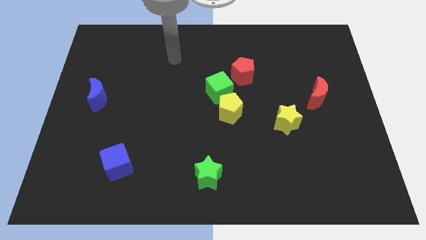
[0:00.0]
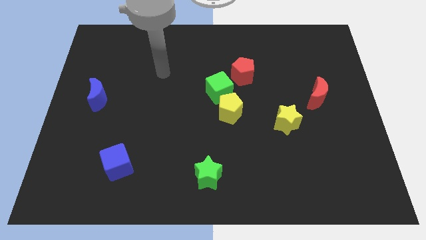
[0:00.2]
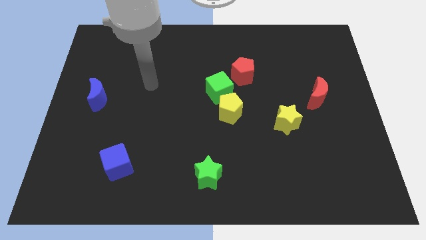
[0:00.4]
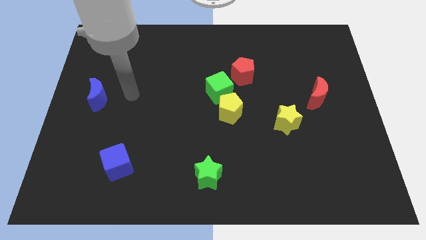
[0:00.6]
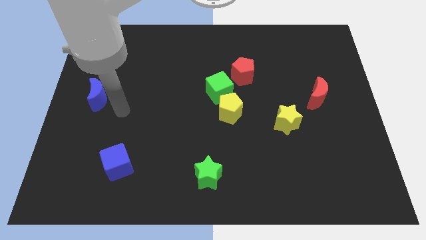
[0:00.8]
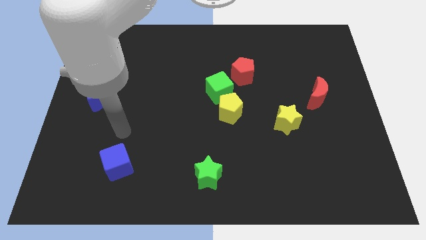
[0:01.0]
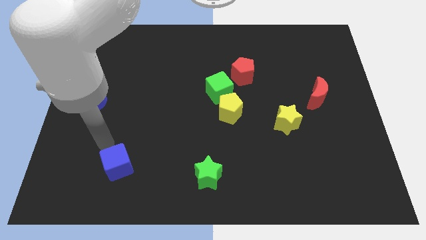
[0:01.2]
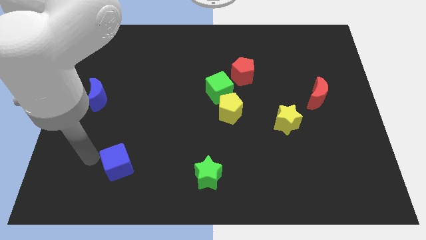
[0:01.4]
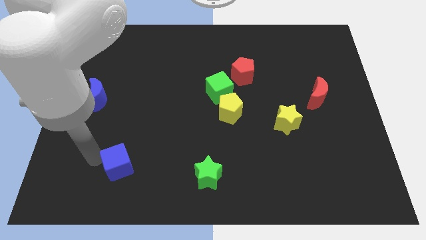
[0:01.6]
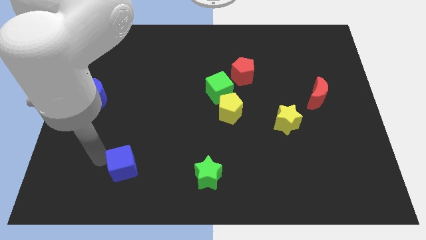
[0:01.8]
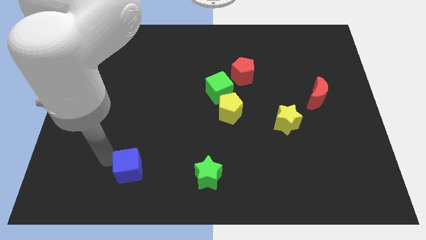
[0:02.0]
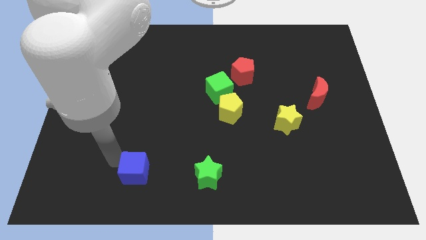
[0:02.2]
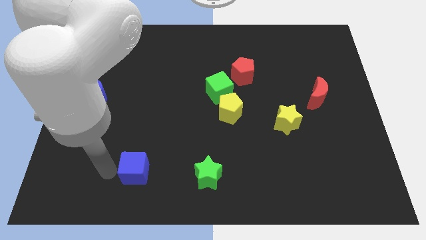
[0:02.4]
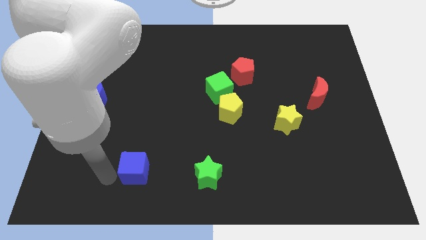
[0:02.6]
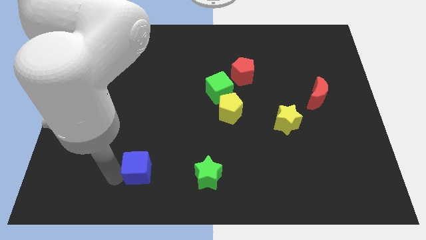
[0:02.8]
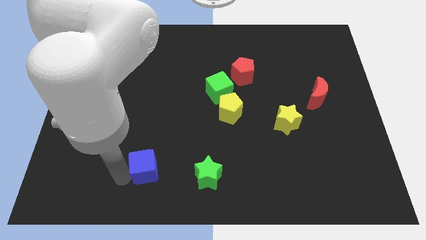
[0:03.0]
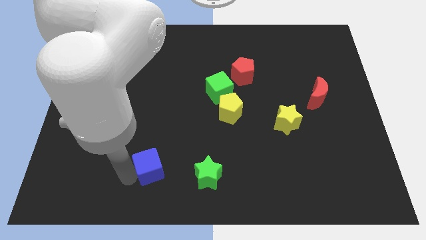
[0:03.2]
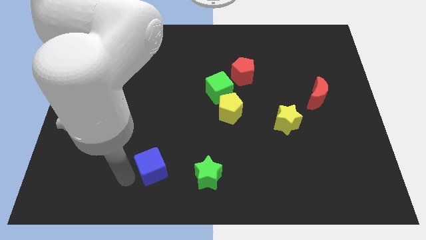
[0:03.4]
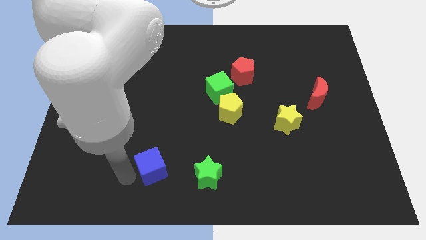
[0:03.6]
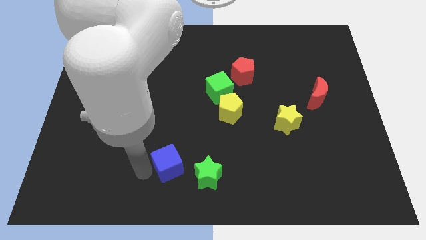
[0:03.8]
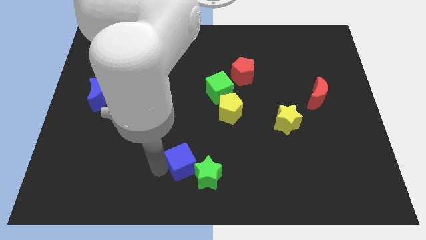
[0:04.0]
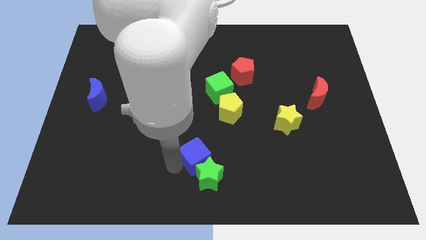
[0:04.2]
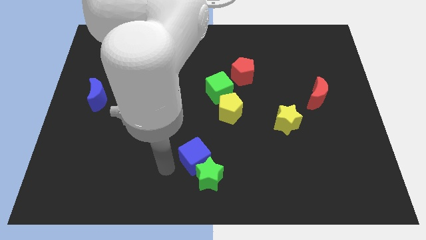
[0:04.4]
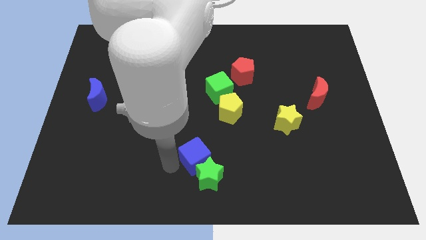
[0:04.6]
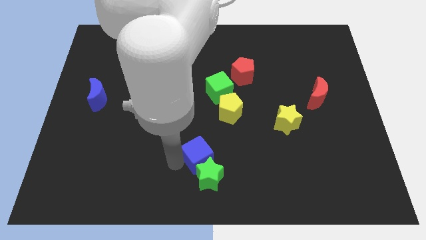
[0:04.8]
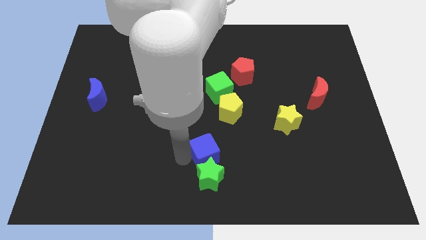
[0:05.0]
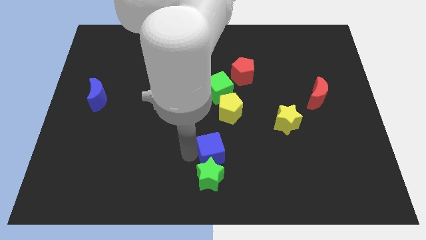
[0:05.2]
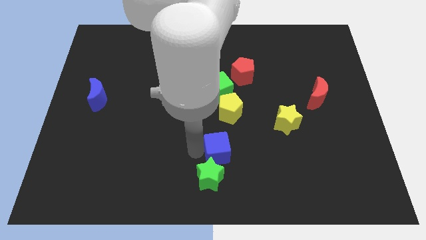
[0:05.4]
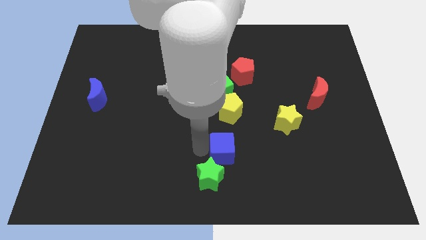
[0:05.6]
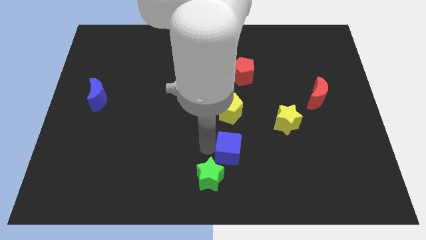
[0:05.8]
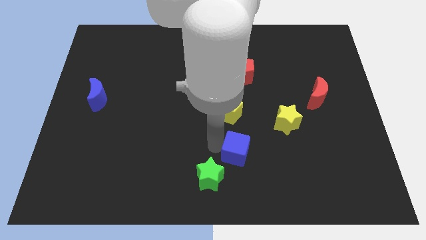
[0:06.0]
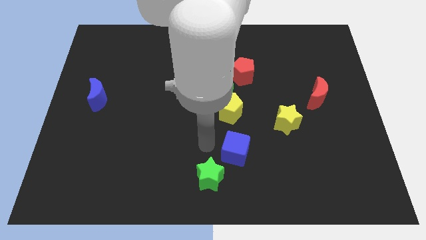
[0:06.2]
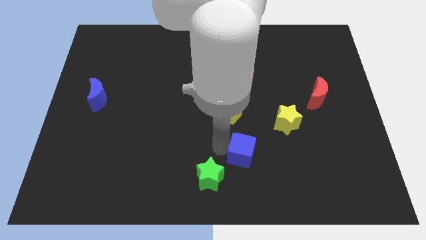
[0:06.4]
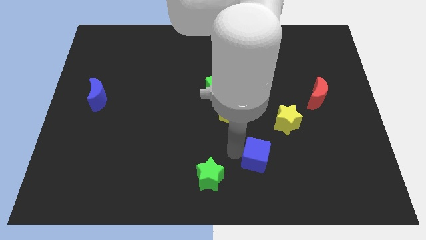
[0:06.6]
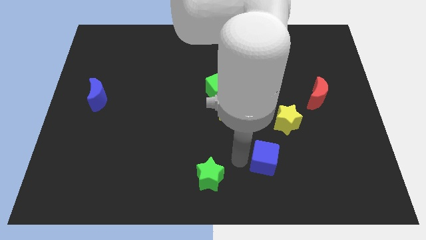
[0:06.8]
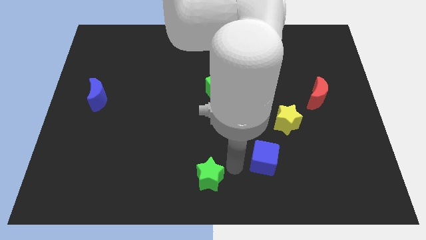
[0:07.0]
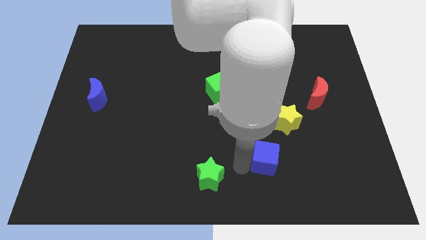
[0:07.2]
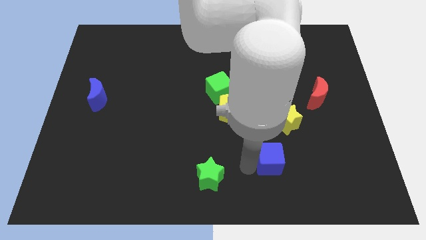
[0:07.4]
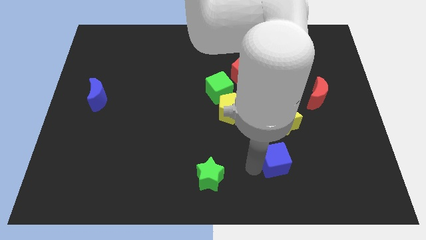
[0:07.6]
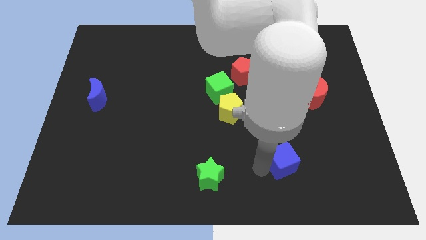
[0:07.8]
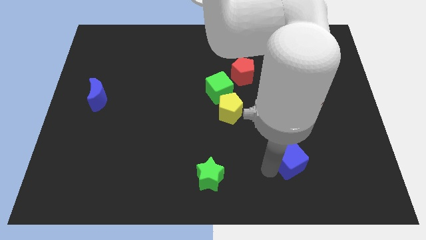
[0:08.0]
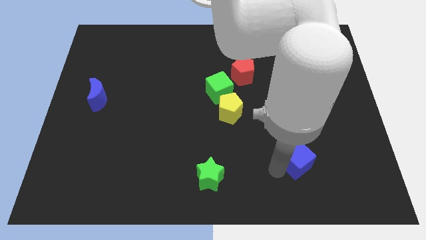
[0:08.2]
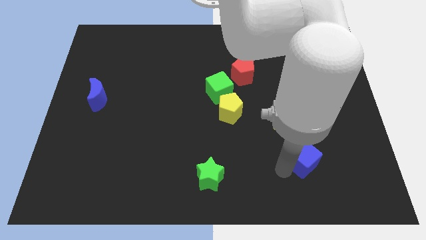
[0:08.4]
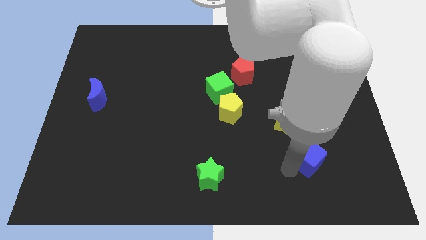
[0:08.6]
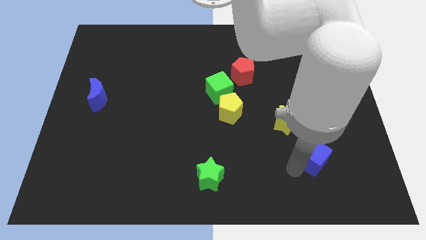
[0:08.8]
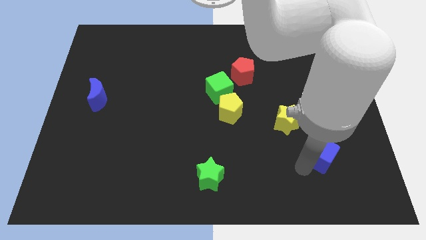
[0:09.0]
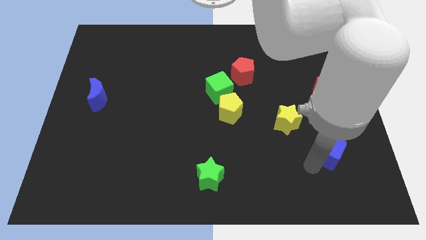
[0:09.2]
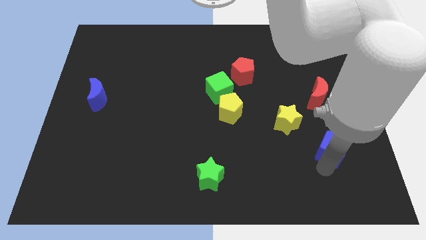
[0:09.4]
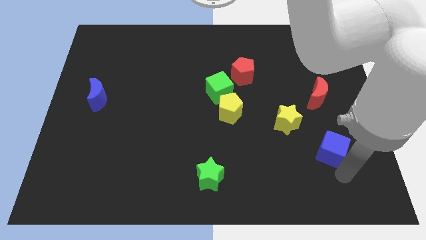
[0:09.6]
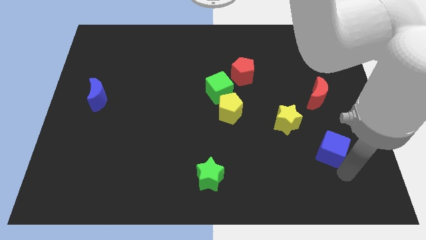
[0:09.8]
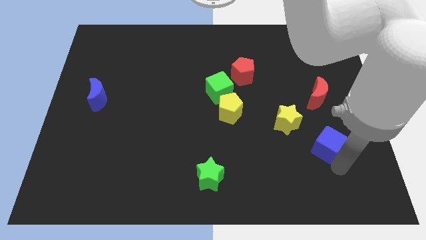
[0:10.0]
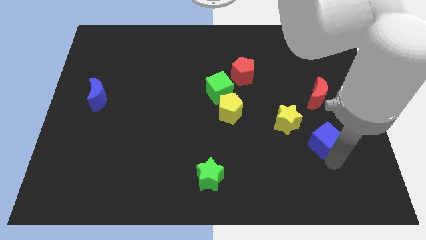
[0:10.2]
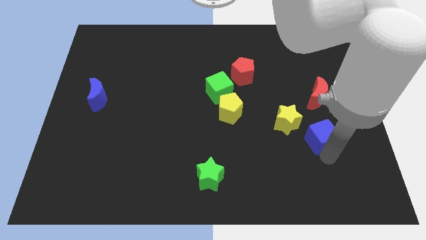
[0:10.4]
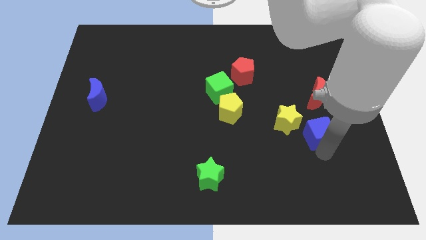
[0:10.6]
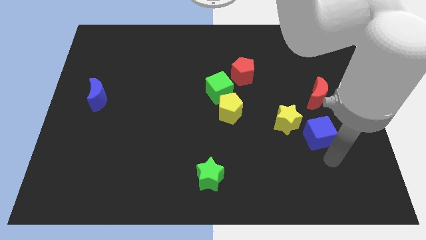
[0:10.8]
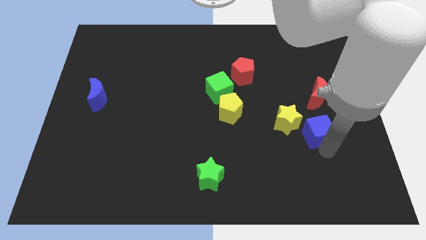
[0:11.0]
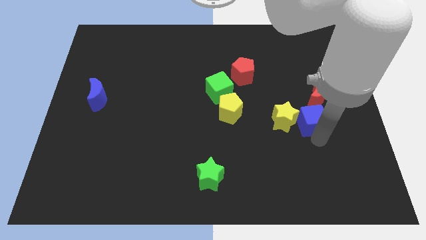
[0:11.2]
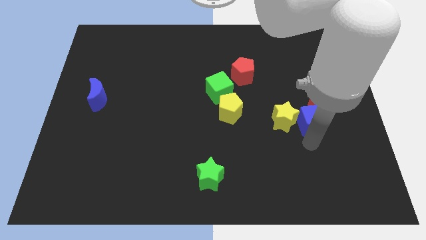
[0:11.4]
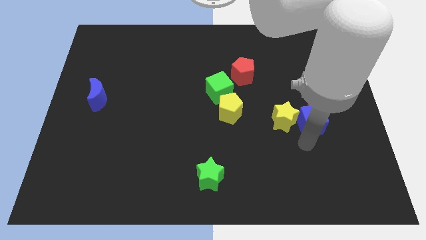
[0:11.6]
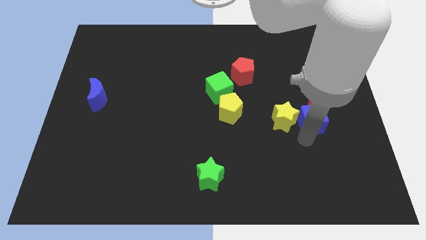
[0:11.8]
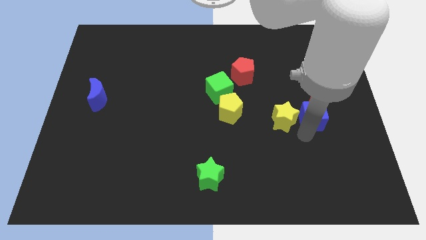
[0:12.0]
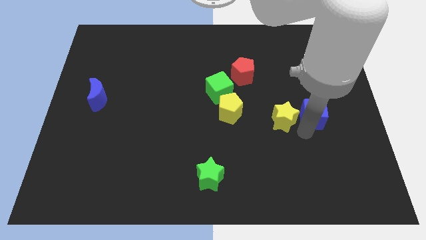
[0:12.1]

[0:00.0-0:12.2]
move the blue cube close to the red moon
